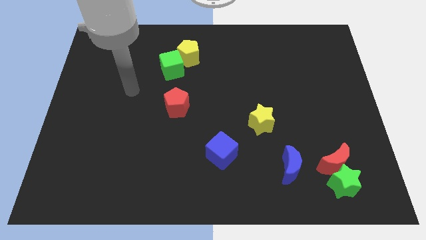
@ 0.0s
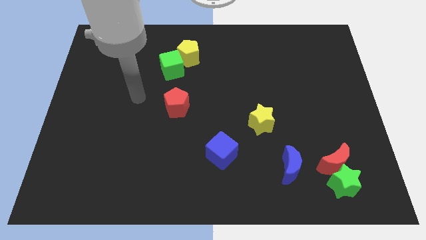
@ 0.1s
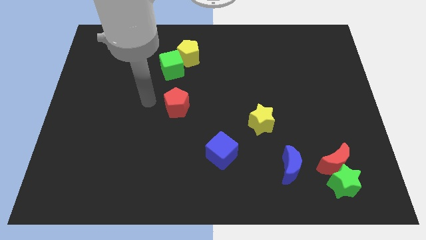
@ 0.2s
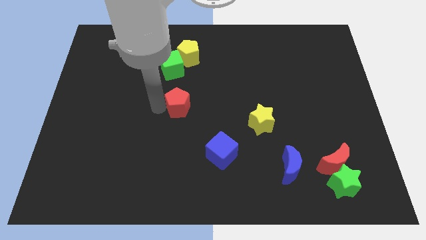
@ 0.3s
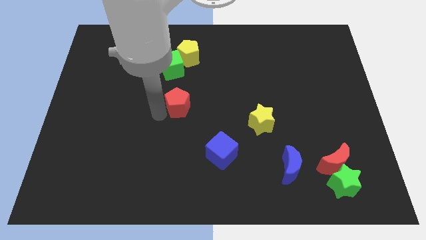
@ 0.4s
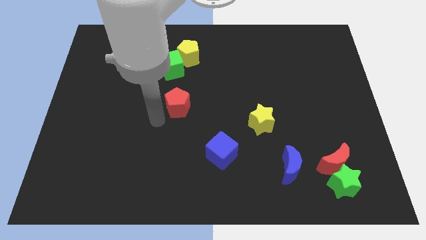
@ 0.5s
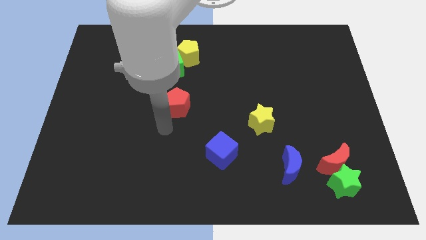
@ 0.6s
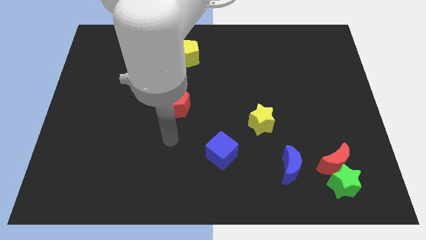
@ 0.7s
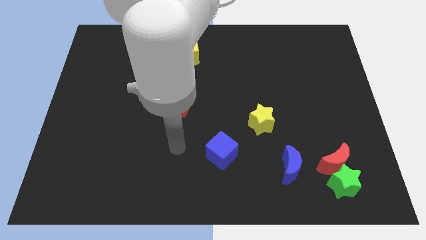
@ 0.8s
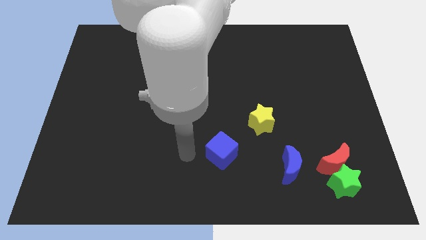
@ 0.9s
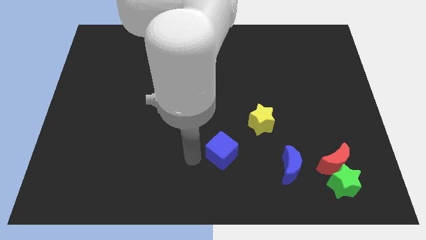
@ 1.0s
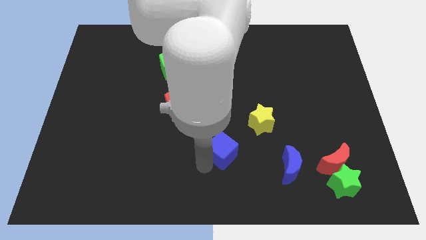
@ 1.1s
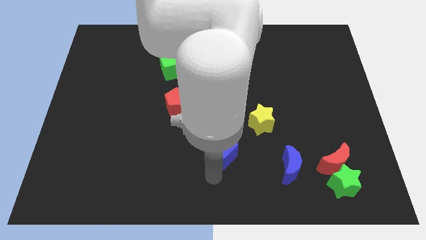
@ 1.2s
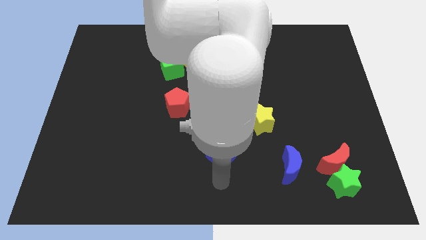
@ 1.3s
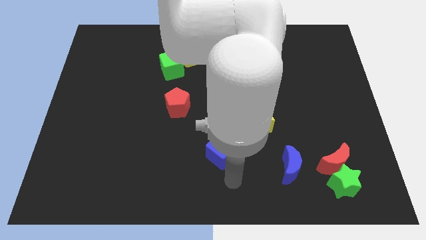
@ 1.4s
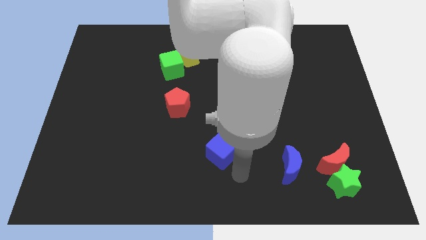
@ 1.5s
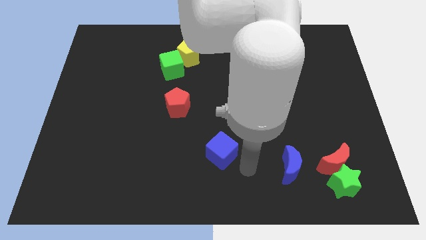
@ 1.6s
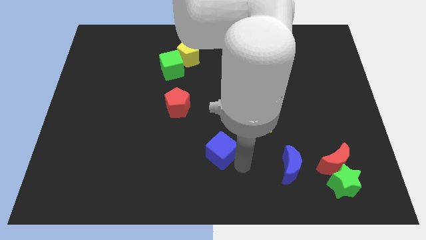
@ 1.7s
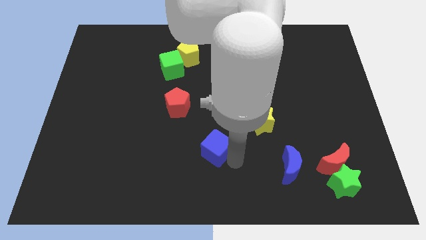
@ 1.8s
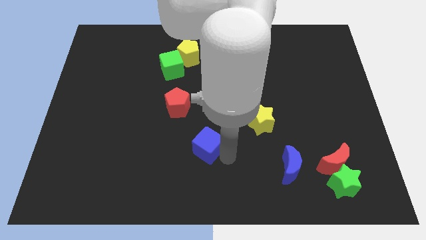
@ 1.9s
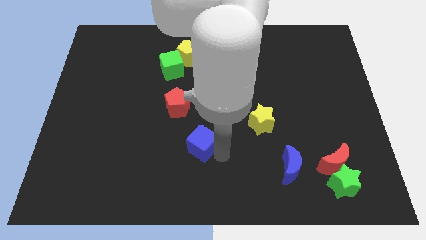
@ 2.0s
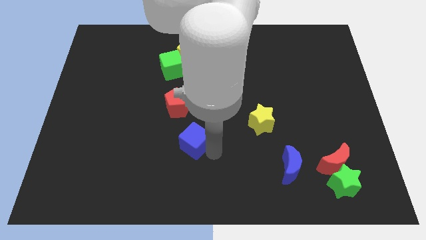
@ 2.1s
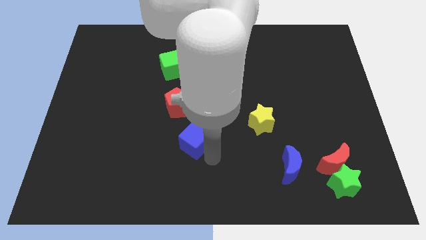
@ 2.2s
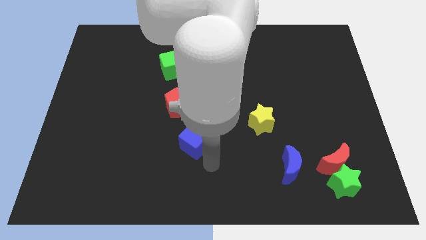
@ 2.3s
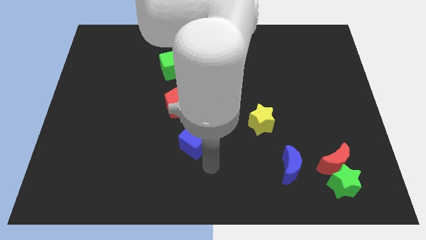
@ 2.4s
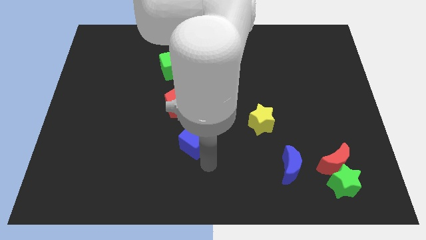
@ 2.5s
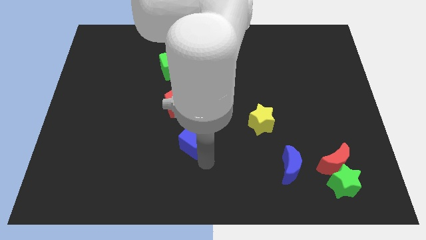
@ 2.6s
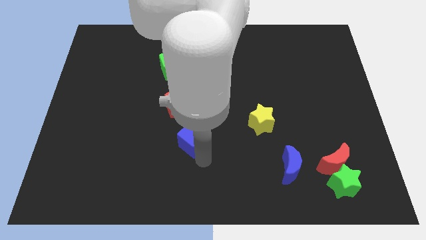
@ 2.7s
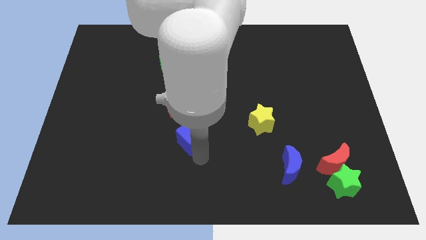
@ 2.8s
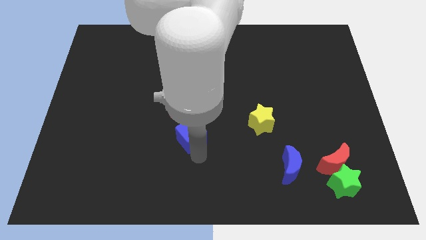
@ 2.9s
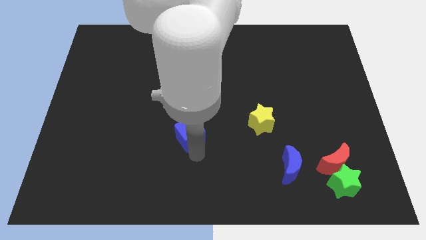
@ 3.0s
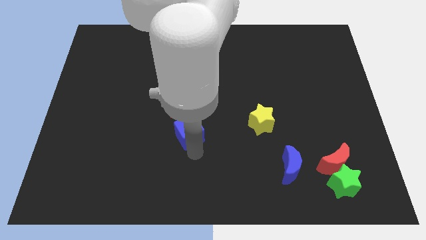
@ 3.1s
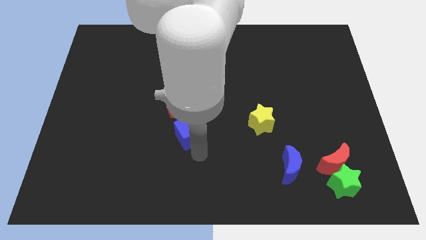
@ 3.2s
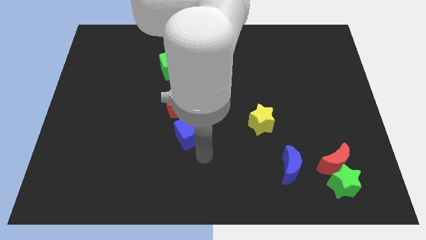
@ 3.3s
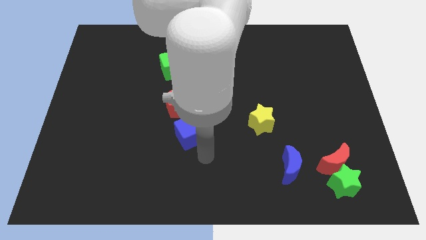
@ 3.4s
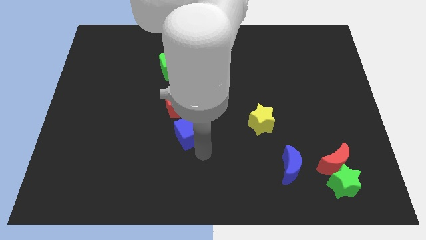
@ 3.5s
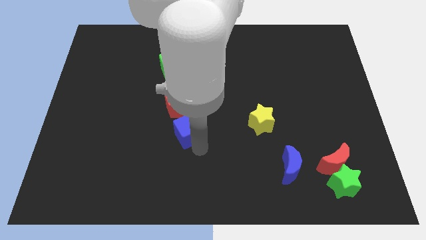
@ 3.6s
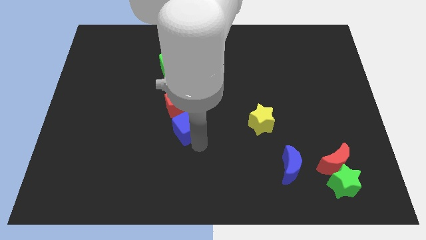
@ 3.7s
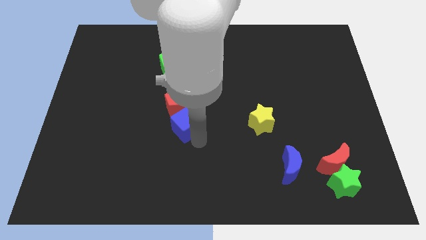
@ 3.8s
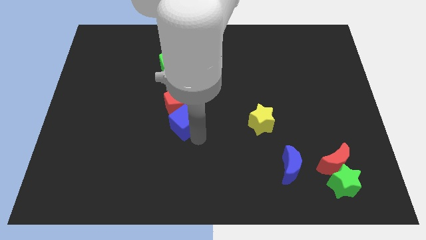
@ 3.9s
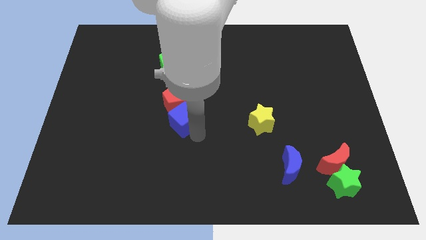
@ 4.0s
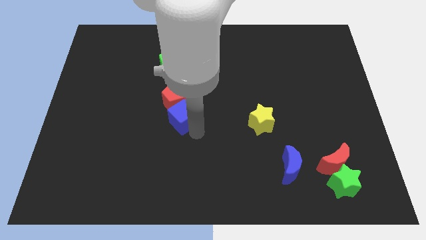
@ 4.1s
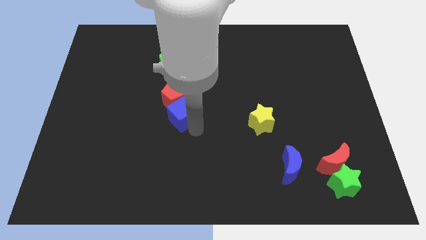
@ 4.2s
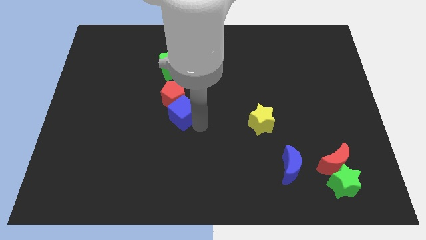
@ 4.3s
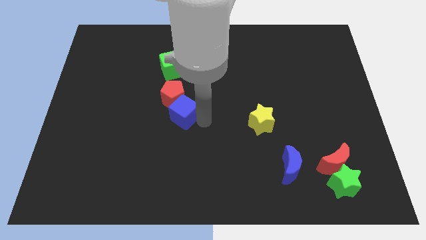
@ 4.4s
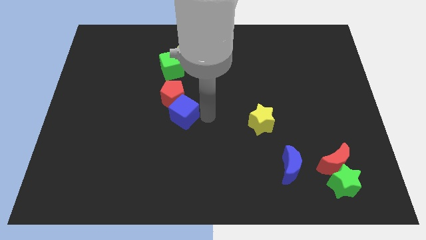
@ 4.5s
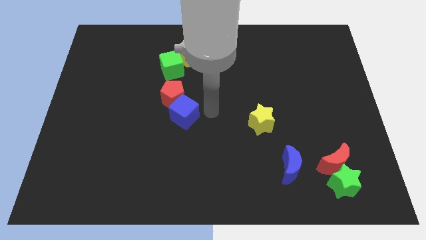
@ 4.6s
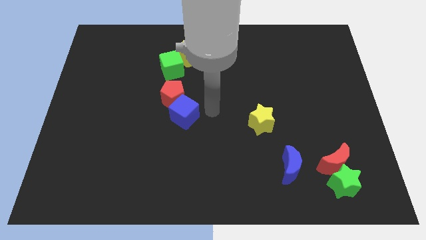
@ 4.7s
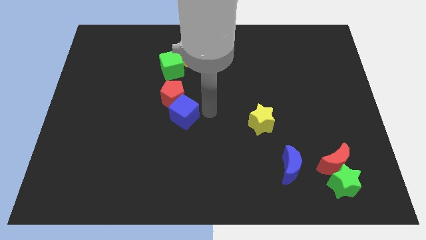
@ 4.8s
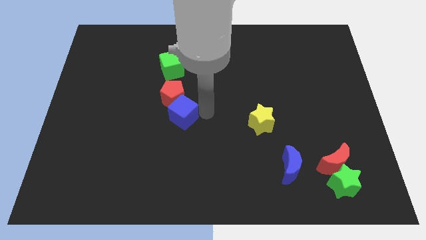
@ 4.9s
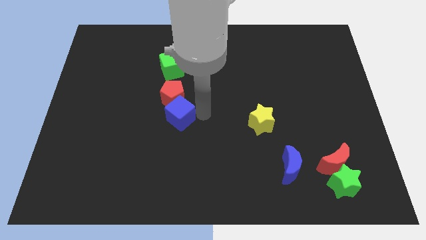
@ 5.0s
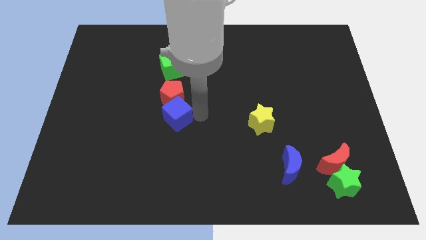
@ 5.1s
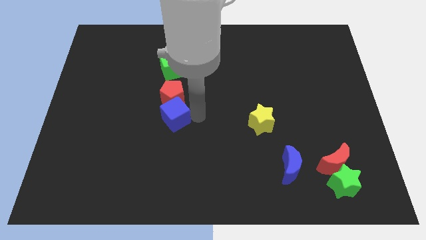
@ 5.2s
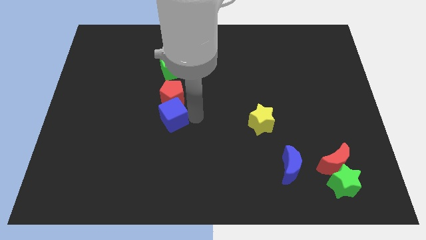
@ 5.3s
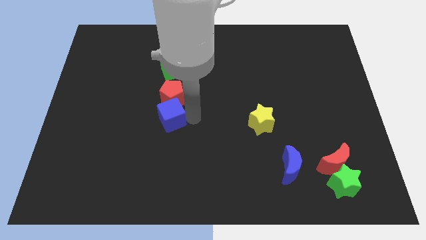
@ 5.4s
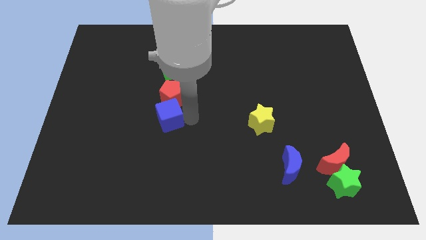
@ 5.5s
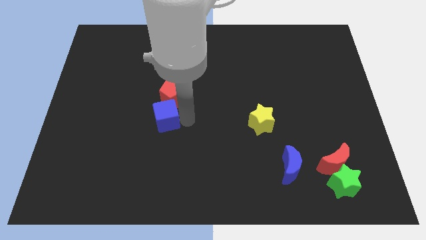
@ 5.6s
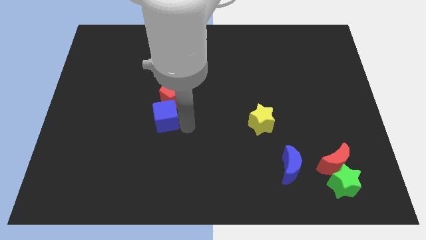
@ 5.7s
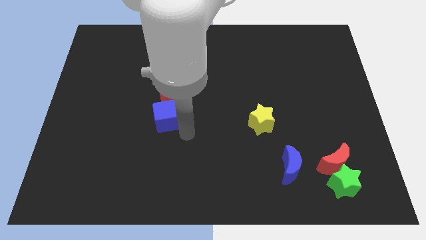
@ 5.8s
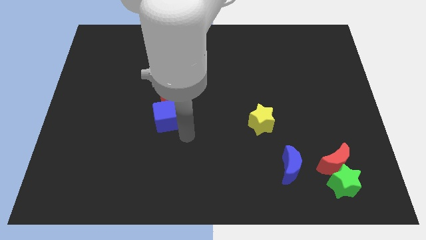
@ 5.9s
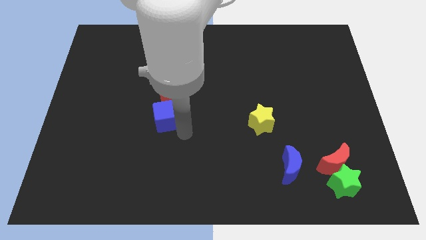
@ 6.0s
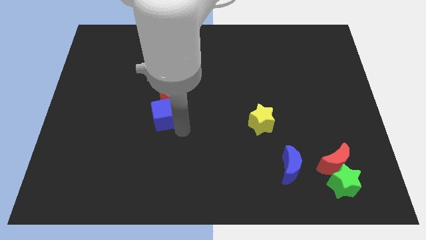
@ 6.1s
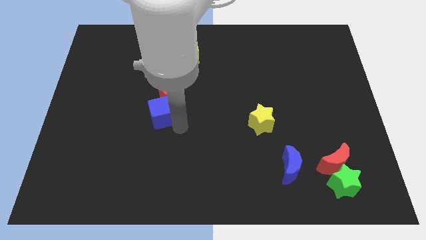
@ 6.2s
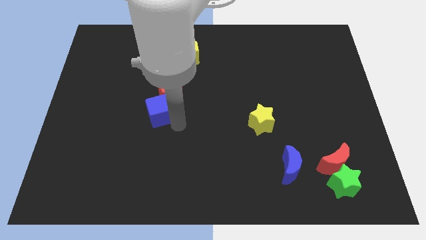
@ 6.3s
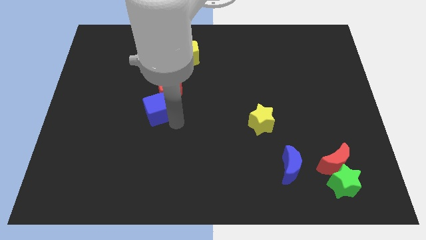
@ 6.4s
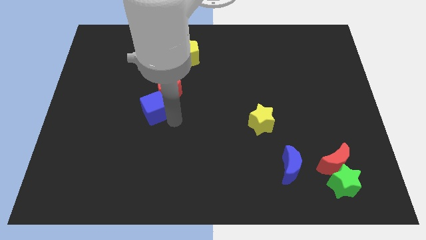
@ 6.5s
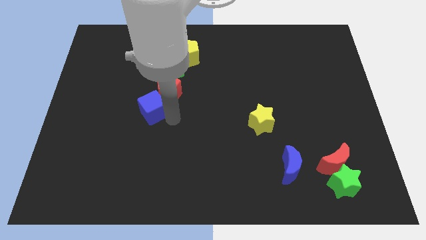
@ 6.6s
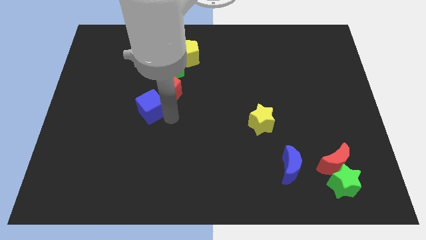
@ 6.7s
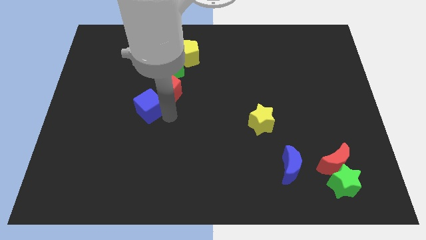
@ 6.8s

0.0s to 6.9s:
move the blue cube diagonally upwards and to the left

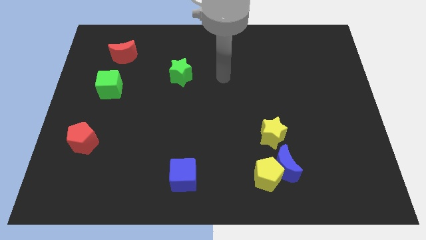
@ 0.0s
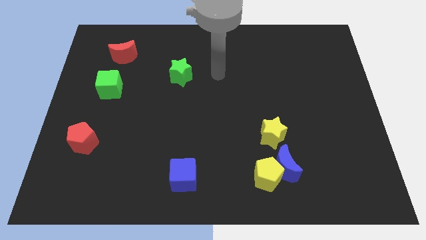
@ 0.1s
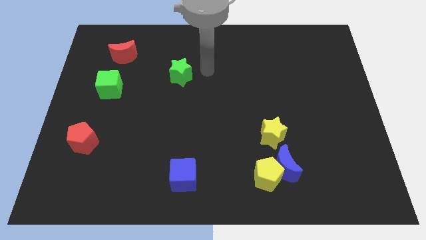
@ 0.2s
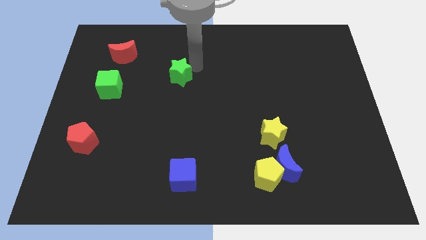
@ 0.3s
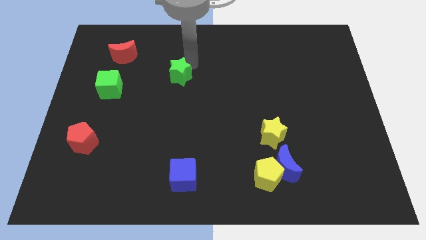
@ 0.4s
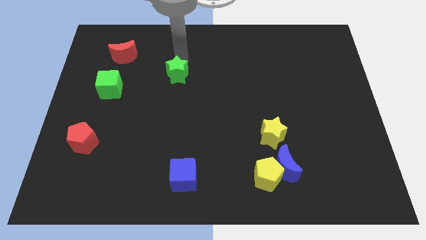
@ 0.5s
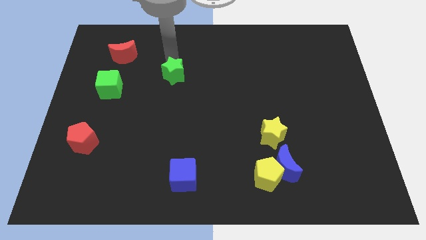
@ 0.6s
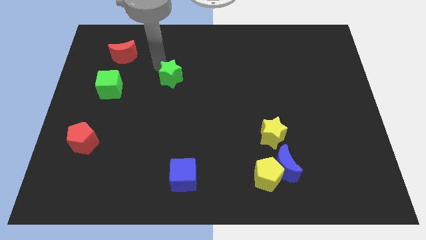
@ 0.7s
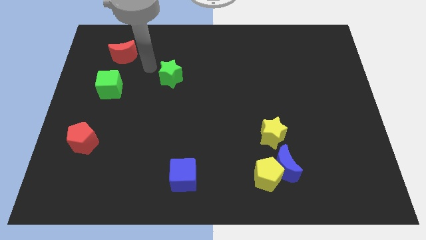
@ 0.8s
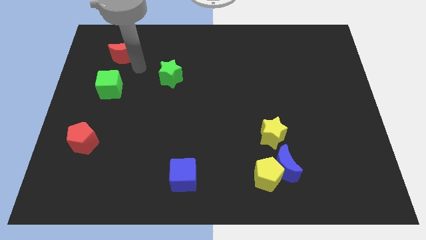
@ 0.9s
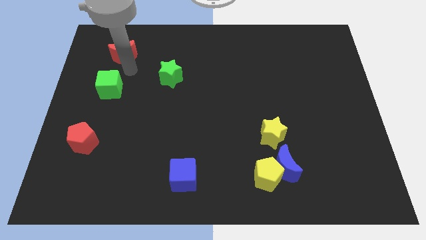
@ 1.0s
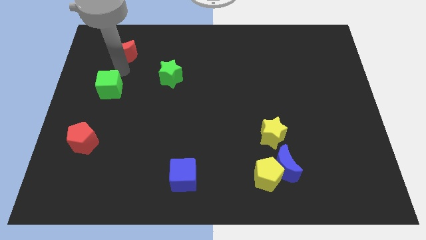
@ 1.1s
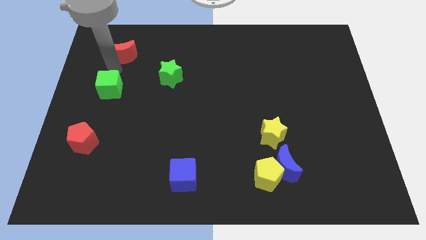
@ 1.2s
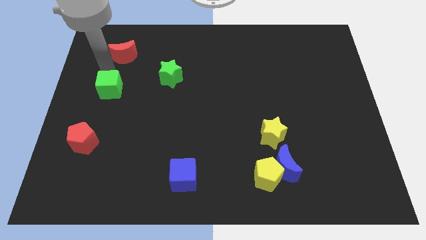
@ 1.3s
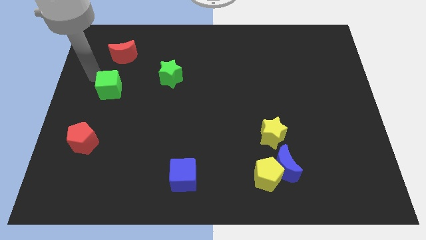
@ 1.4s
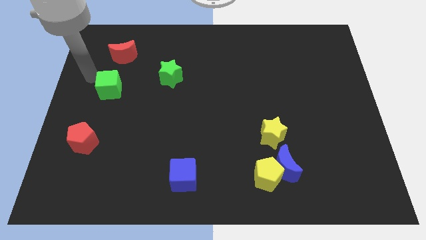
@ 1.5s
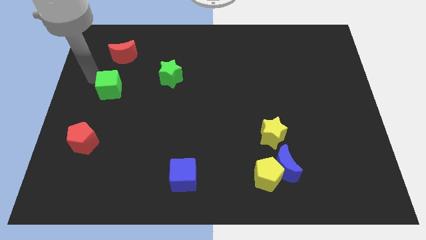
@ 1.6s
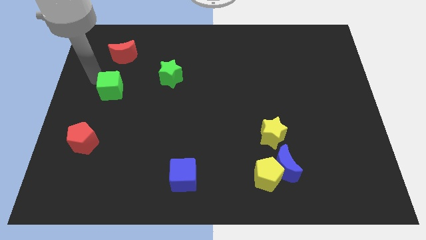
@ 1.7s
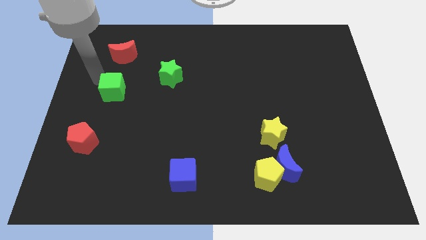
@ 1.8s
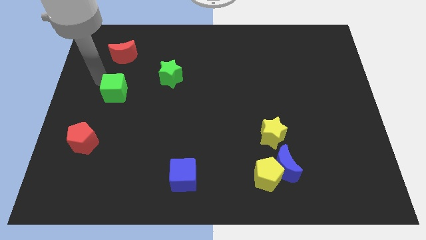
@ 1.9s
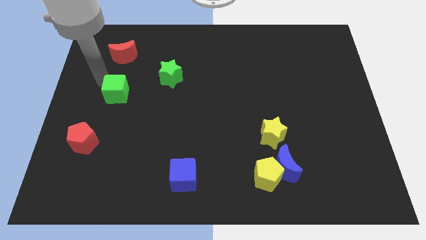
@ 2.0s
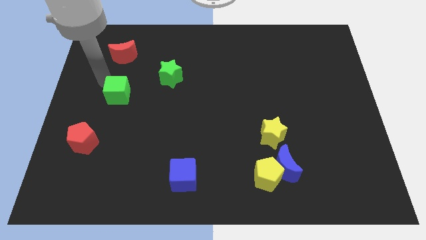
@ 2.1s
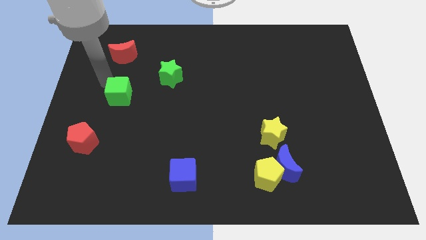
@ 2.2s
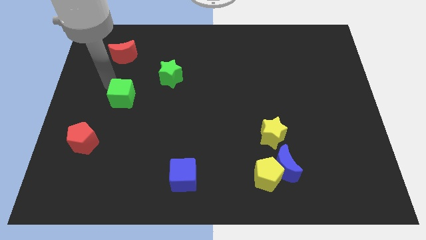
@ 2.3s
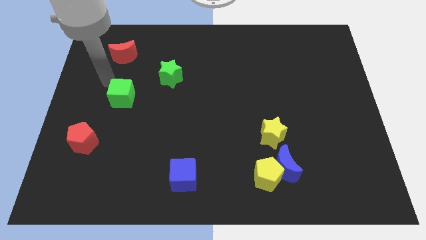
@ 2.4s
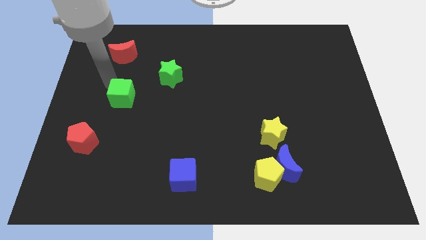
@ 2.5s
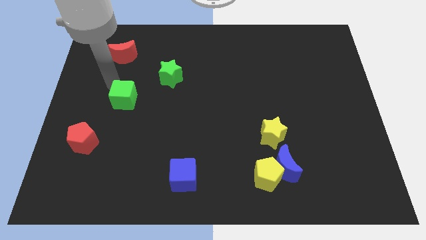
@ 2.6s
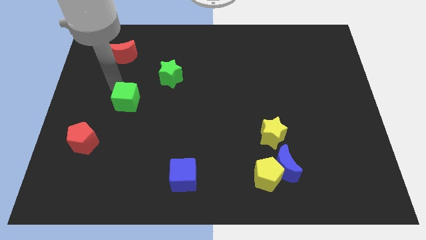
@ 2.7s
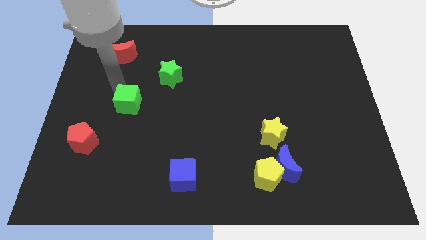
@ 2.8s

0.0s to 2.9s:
push the green cube a bit down and to the right
